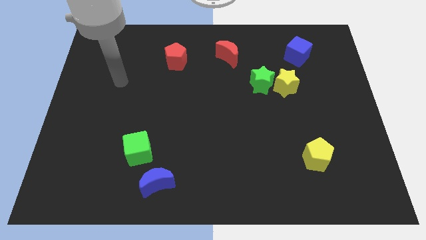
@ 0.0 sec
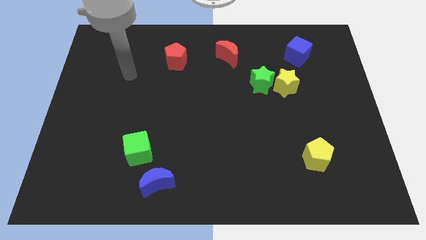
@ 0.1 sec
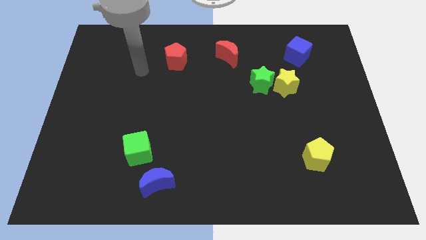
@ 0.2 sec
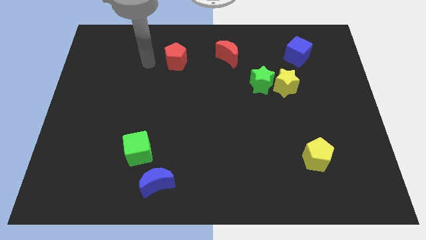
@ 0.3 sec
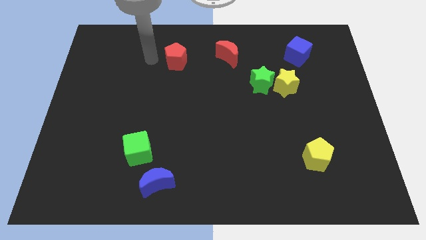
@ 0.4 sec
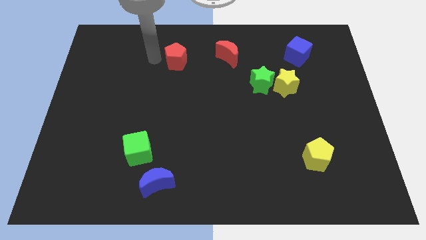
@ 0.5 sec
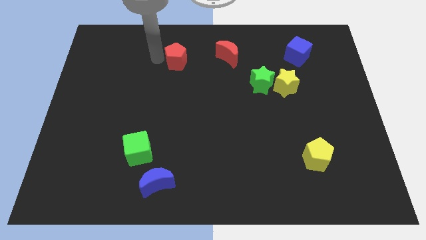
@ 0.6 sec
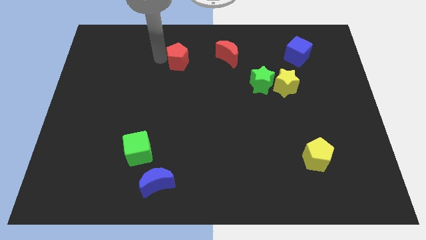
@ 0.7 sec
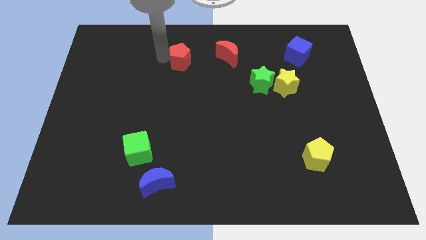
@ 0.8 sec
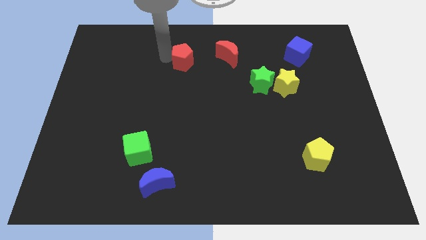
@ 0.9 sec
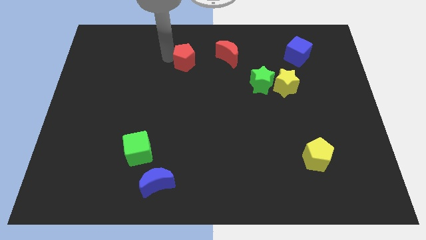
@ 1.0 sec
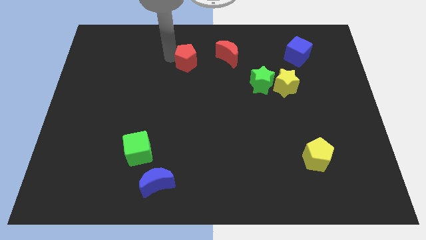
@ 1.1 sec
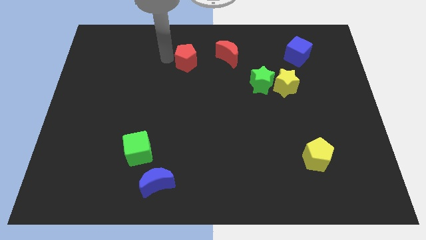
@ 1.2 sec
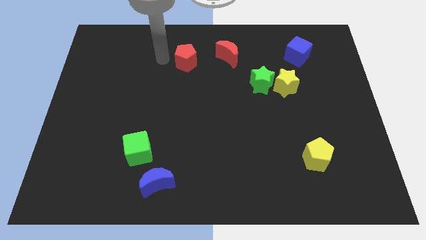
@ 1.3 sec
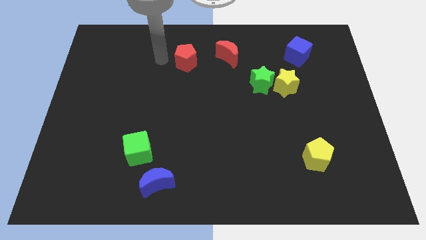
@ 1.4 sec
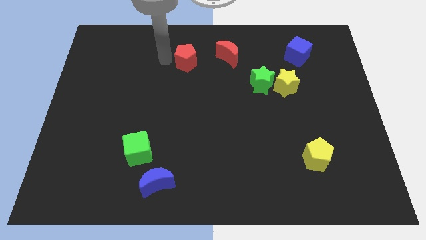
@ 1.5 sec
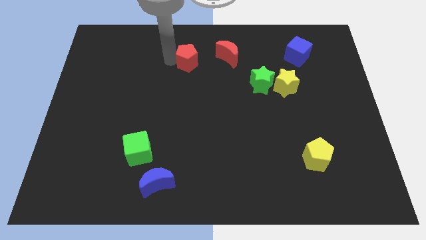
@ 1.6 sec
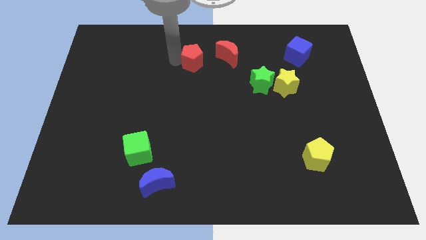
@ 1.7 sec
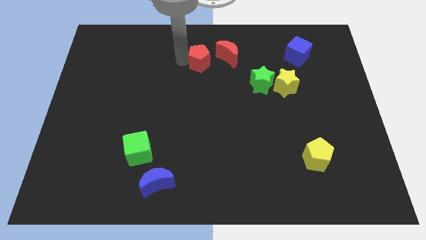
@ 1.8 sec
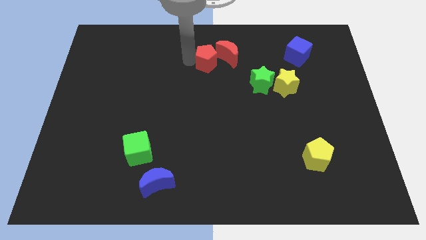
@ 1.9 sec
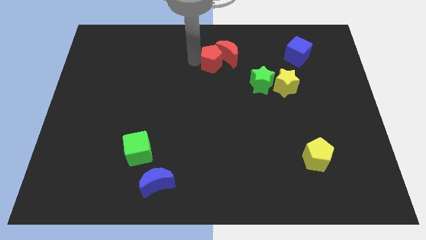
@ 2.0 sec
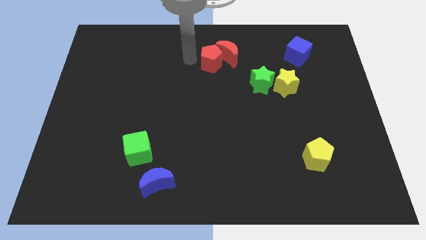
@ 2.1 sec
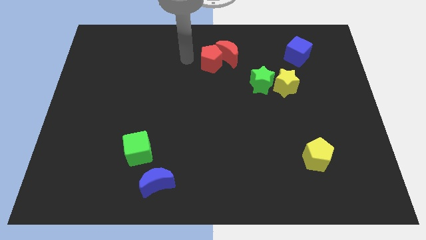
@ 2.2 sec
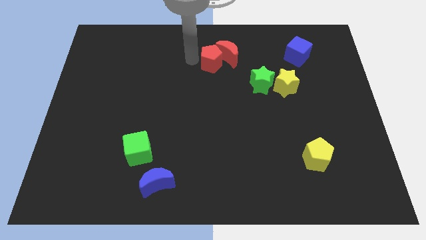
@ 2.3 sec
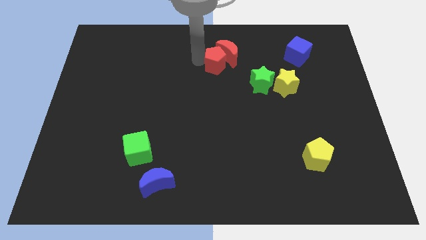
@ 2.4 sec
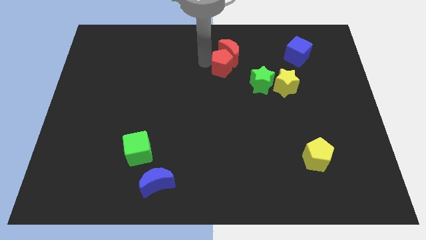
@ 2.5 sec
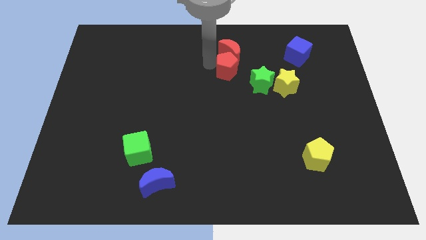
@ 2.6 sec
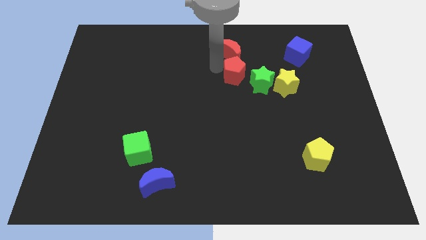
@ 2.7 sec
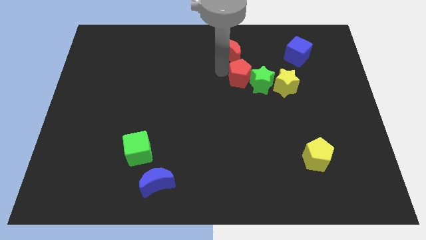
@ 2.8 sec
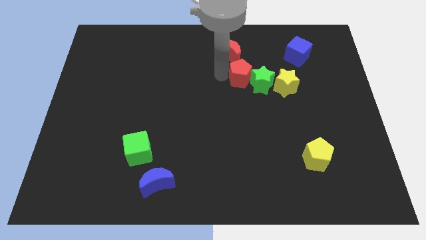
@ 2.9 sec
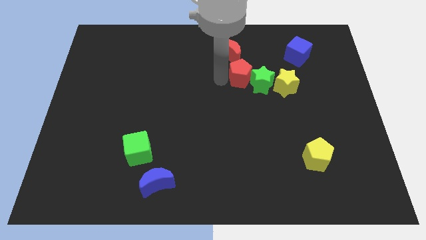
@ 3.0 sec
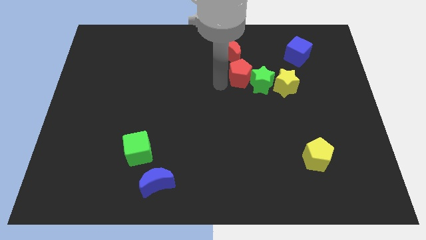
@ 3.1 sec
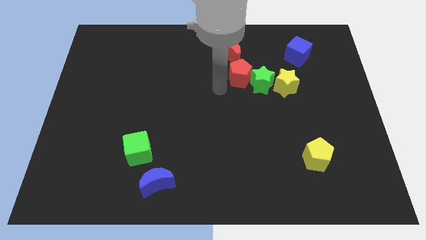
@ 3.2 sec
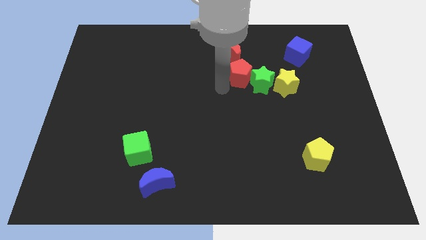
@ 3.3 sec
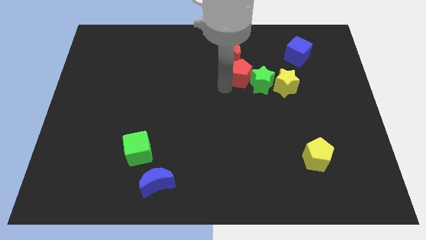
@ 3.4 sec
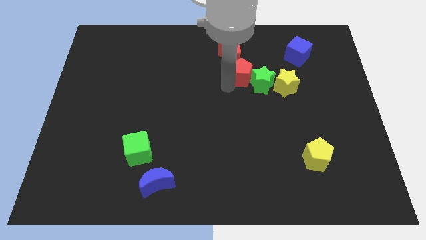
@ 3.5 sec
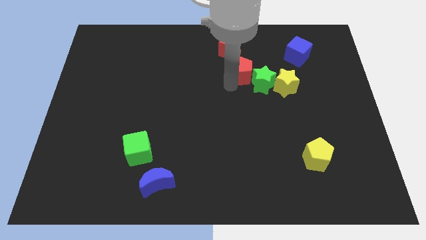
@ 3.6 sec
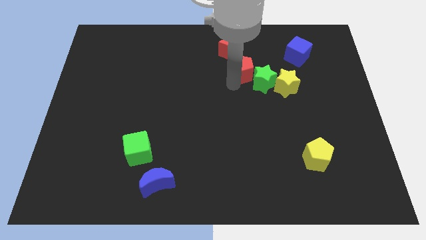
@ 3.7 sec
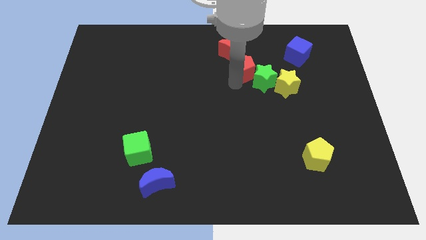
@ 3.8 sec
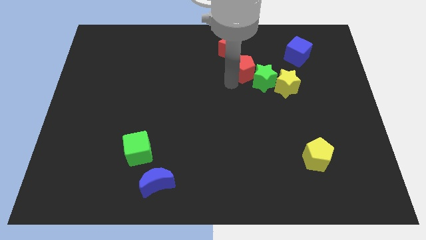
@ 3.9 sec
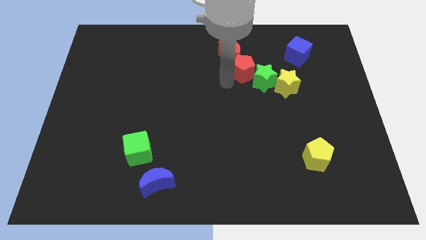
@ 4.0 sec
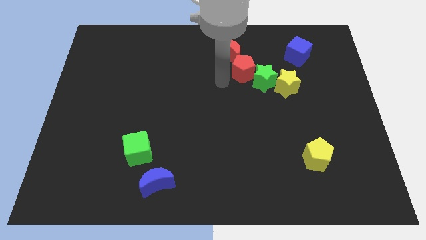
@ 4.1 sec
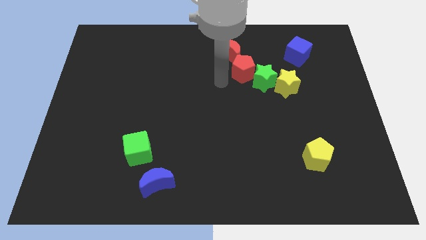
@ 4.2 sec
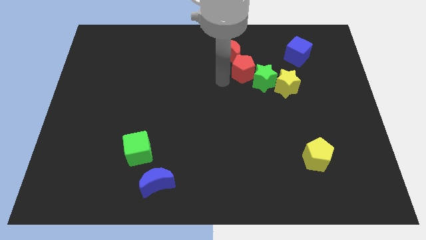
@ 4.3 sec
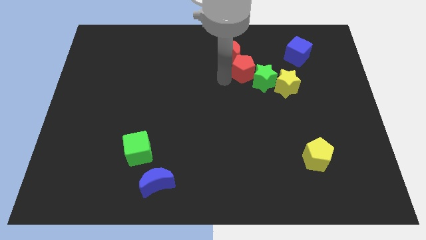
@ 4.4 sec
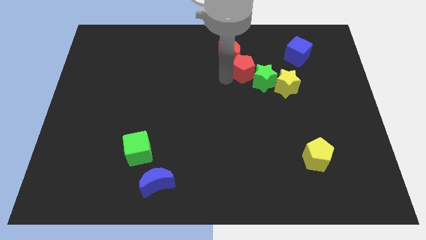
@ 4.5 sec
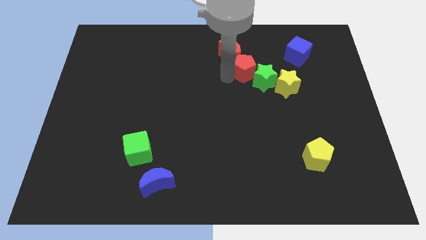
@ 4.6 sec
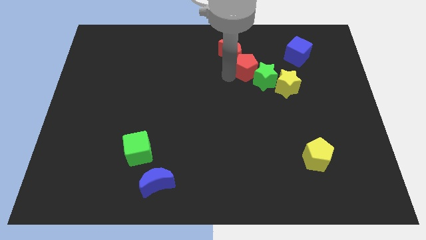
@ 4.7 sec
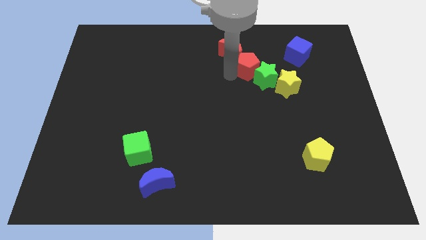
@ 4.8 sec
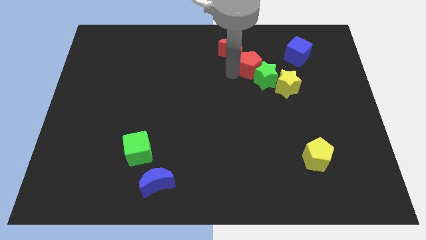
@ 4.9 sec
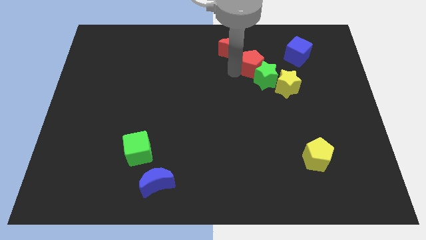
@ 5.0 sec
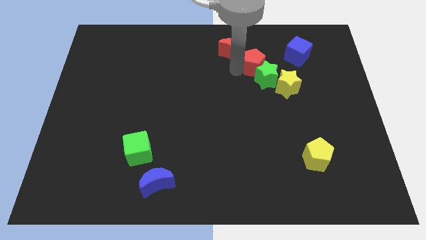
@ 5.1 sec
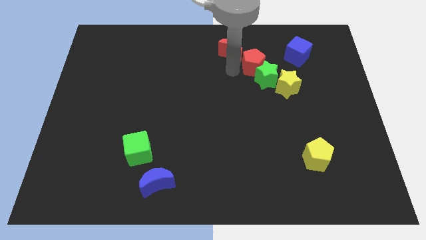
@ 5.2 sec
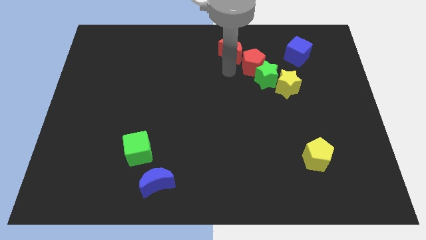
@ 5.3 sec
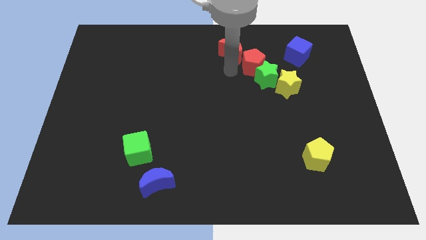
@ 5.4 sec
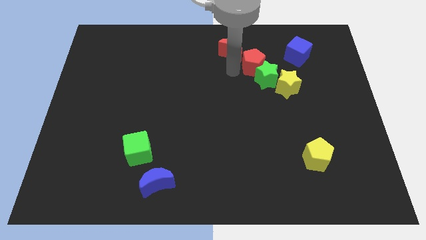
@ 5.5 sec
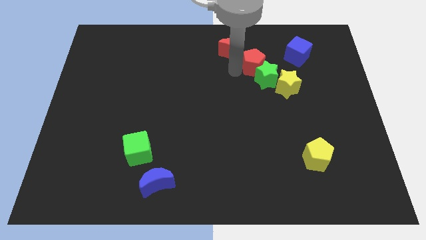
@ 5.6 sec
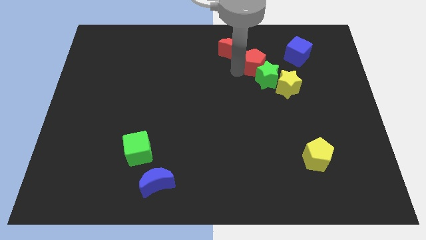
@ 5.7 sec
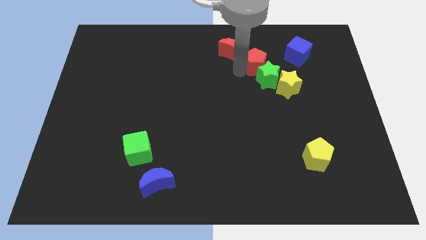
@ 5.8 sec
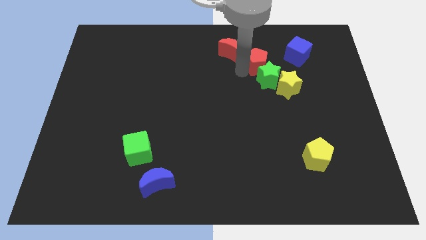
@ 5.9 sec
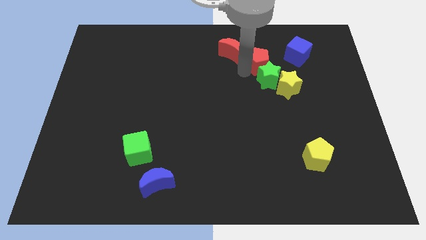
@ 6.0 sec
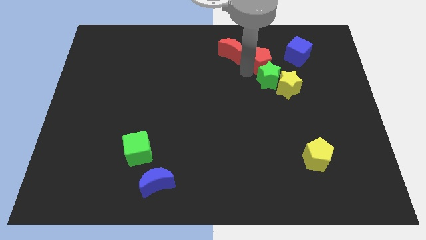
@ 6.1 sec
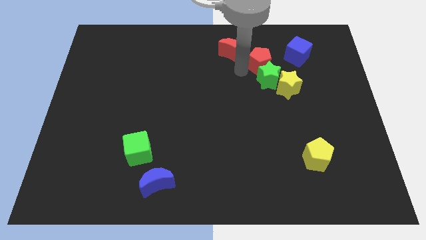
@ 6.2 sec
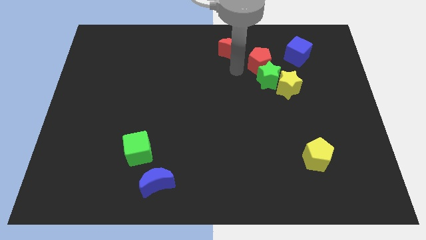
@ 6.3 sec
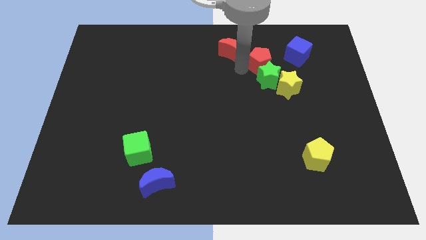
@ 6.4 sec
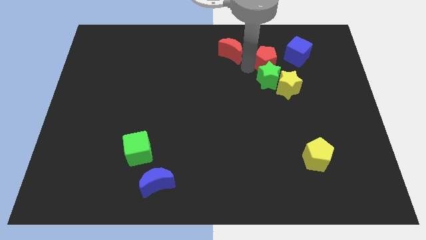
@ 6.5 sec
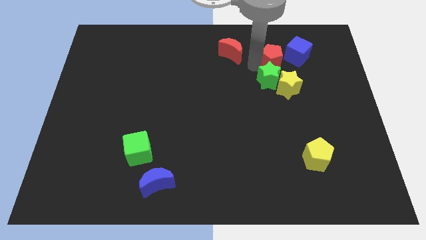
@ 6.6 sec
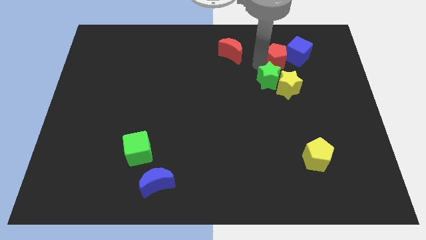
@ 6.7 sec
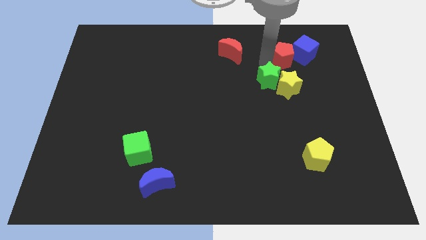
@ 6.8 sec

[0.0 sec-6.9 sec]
move the red pentagon to the blue cube
